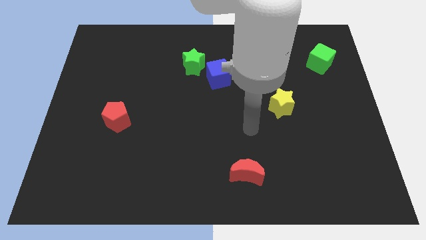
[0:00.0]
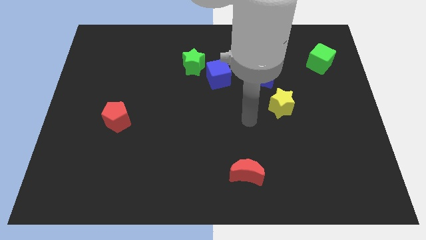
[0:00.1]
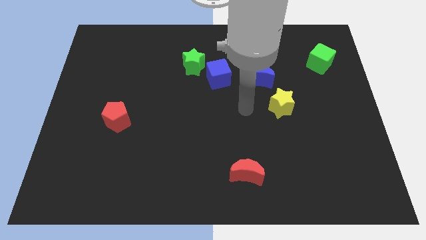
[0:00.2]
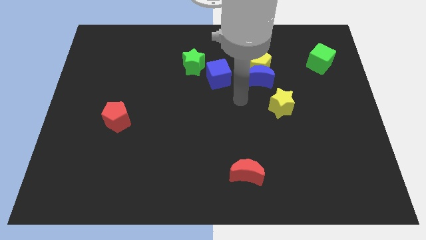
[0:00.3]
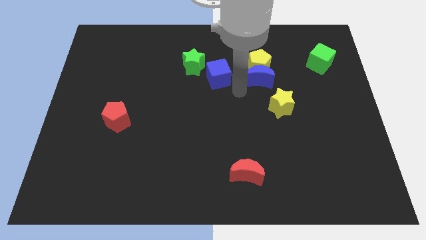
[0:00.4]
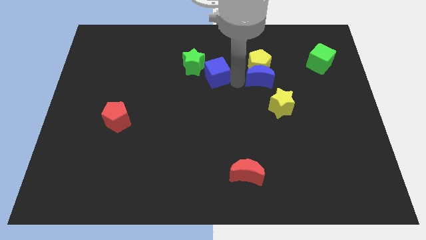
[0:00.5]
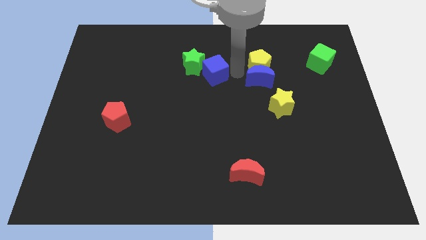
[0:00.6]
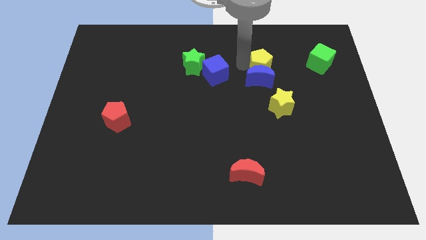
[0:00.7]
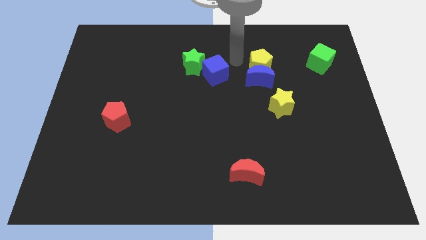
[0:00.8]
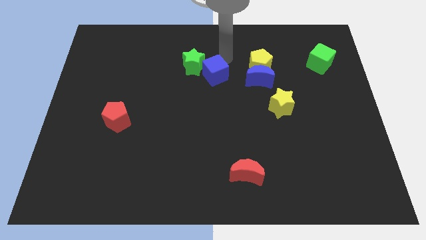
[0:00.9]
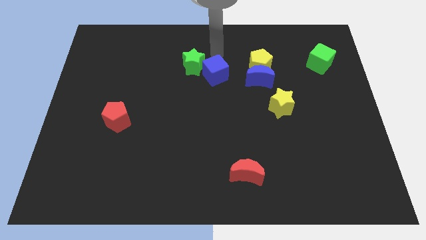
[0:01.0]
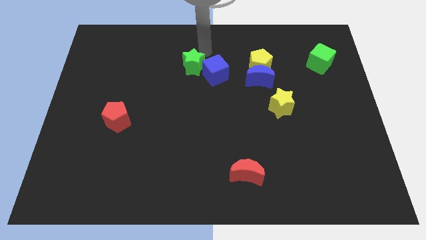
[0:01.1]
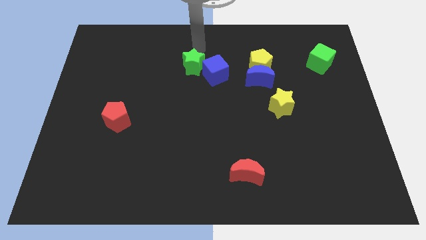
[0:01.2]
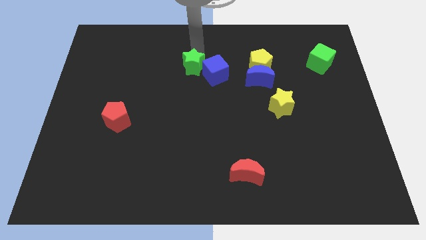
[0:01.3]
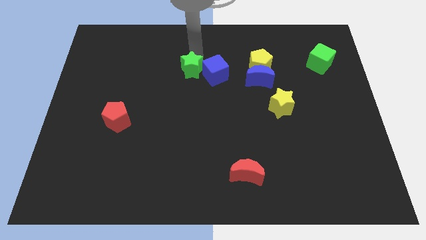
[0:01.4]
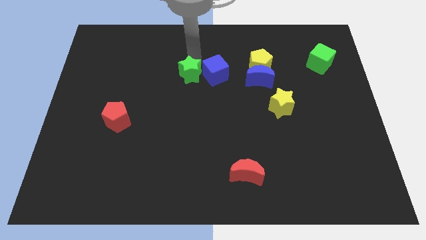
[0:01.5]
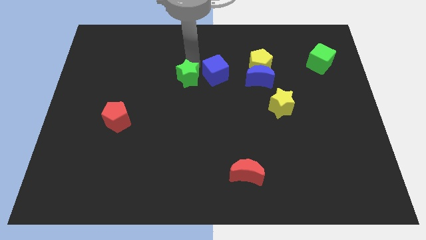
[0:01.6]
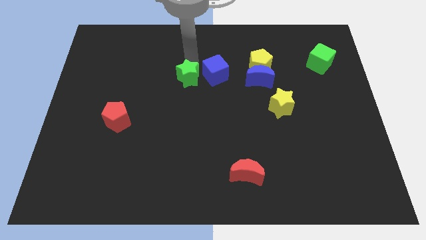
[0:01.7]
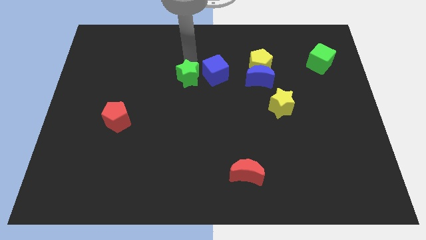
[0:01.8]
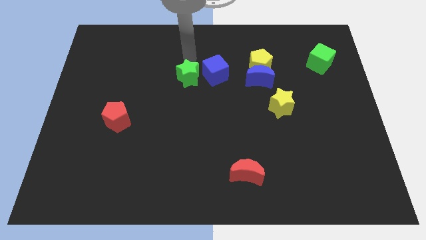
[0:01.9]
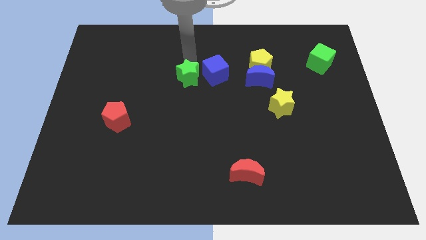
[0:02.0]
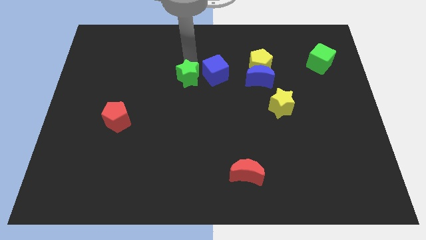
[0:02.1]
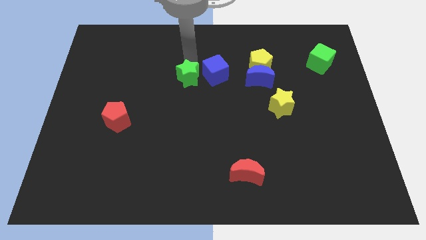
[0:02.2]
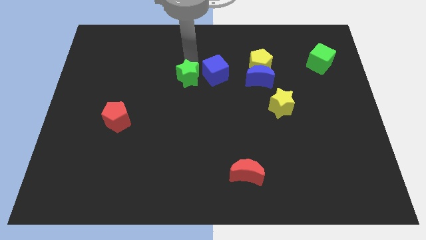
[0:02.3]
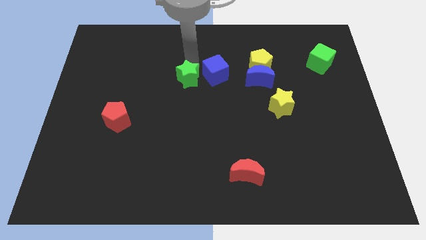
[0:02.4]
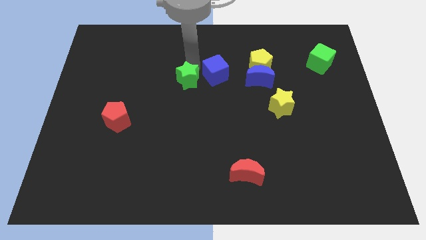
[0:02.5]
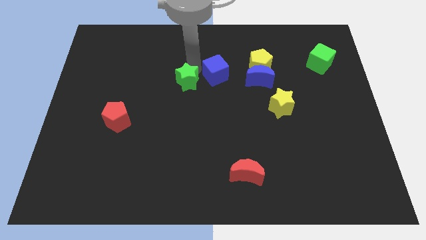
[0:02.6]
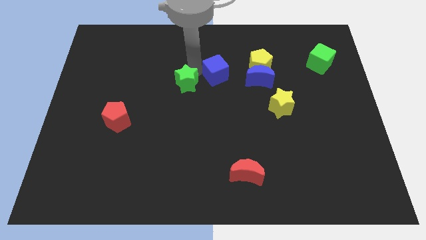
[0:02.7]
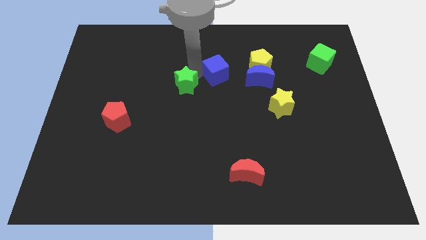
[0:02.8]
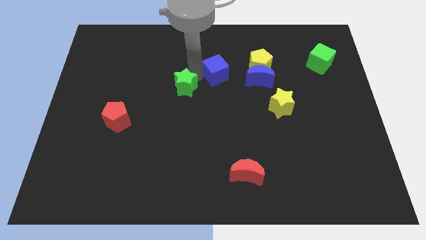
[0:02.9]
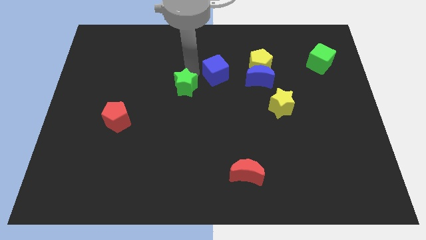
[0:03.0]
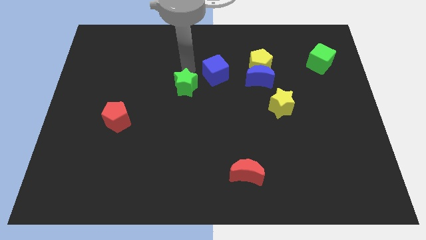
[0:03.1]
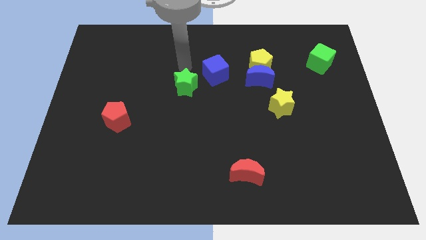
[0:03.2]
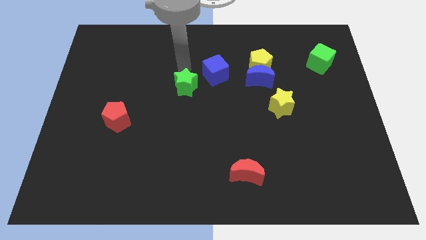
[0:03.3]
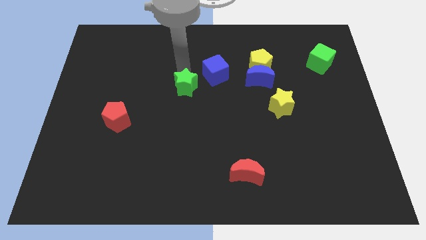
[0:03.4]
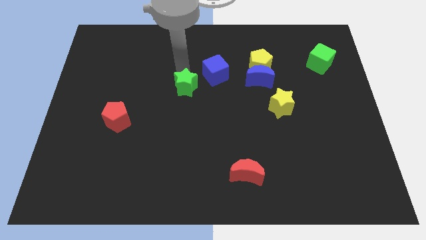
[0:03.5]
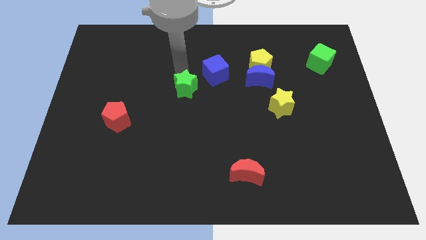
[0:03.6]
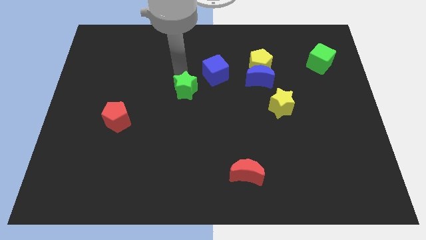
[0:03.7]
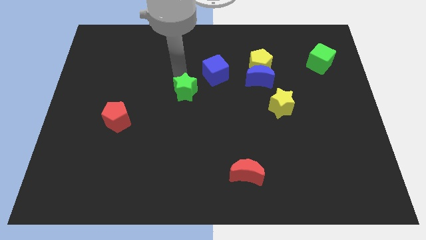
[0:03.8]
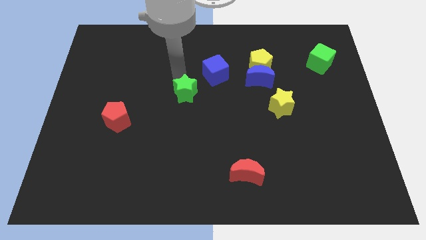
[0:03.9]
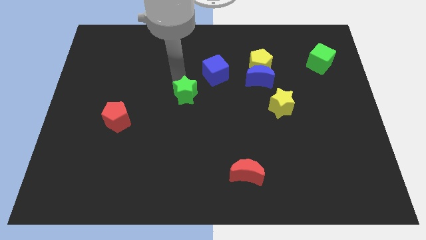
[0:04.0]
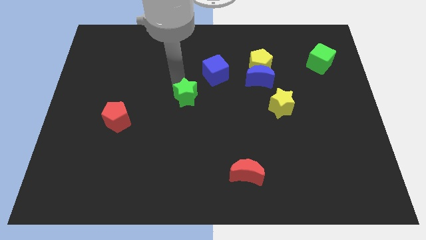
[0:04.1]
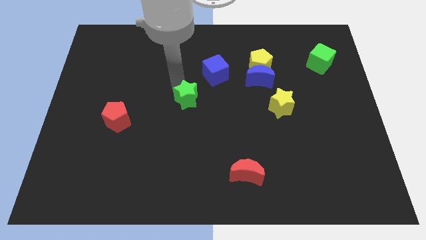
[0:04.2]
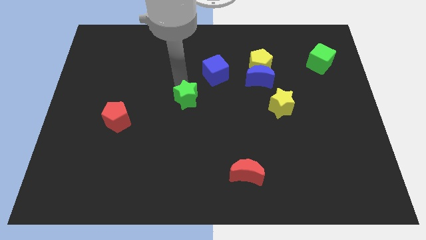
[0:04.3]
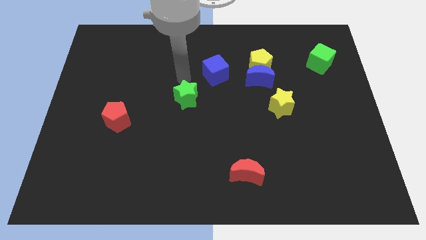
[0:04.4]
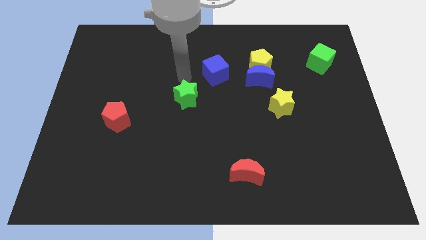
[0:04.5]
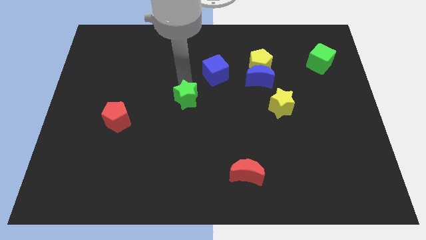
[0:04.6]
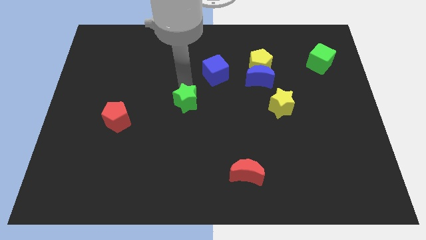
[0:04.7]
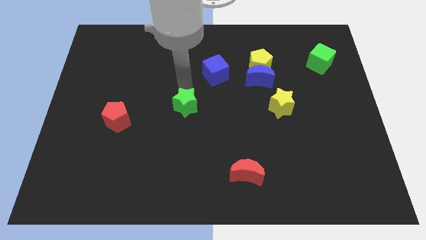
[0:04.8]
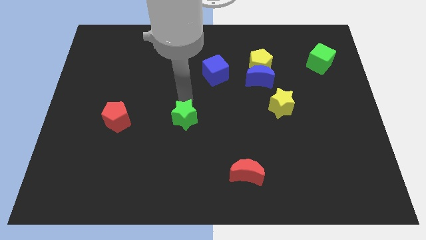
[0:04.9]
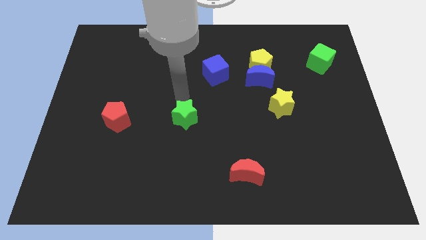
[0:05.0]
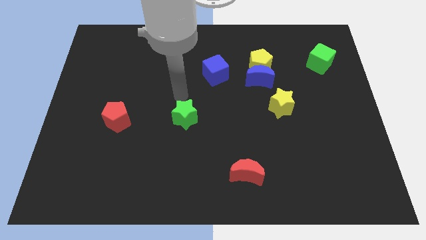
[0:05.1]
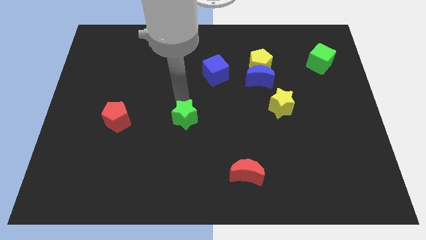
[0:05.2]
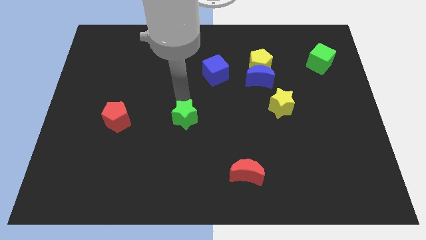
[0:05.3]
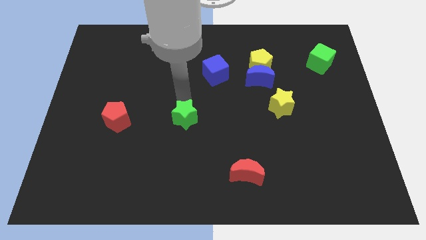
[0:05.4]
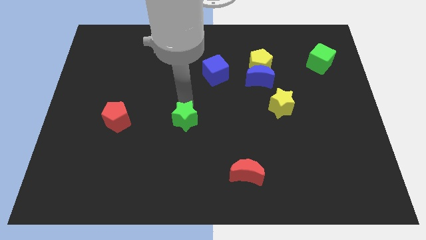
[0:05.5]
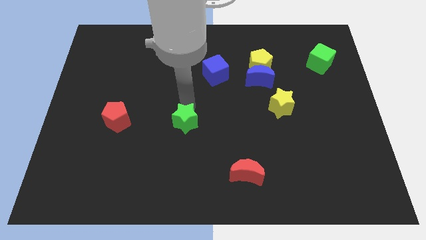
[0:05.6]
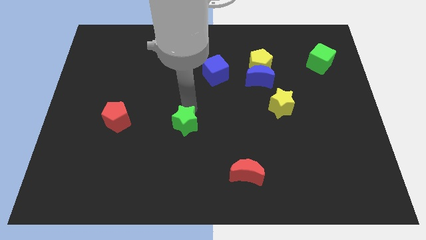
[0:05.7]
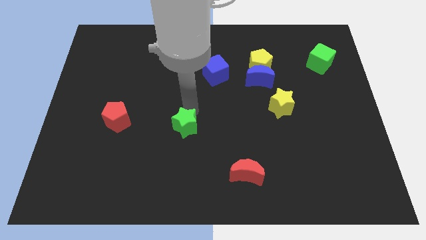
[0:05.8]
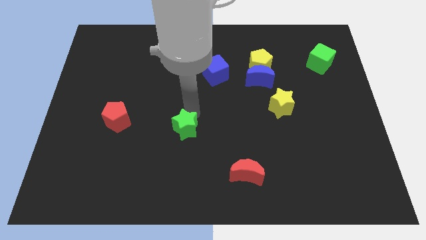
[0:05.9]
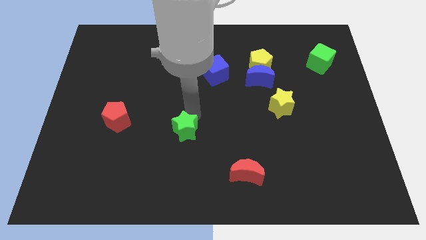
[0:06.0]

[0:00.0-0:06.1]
move the green star down

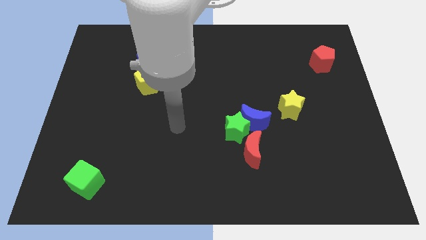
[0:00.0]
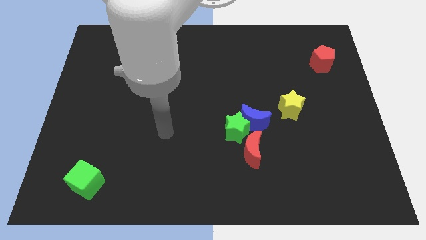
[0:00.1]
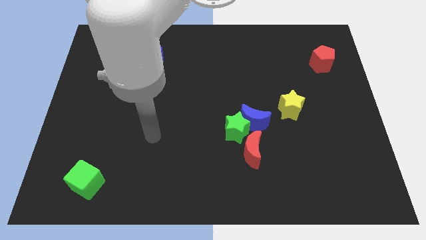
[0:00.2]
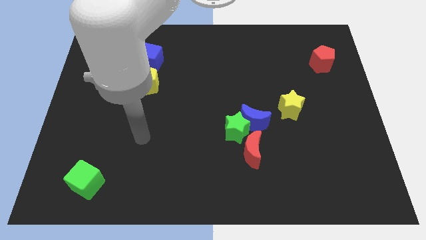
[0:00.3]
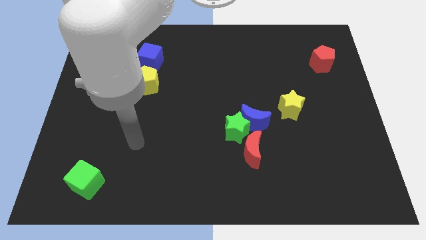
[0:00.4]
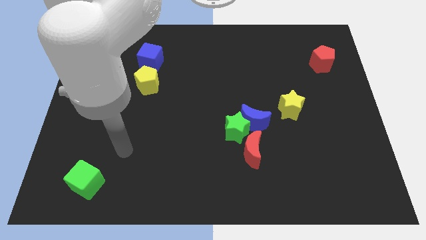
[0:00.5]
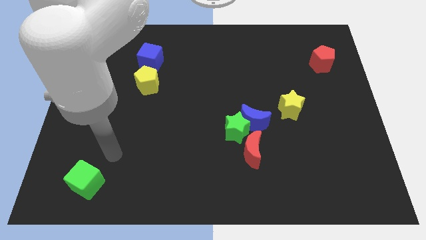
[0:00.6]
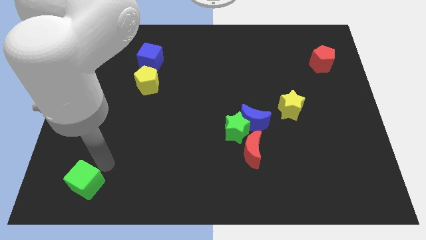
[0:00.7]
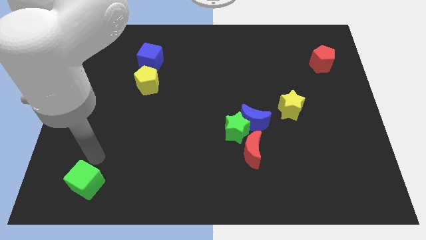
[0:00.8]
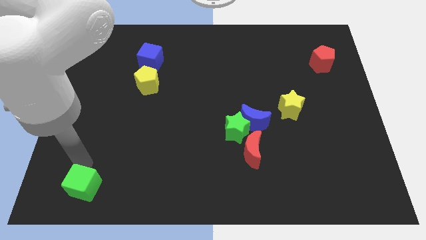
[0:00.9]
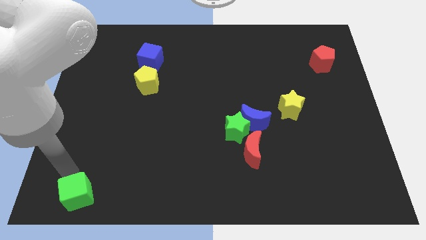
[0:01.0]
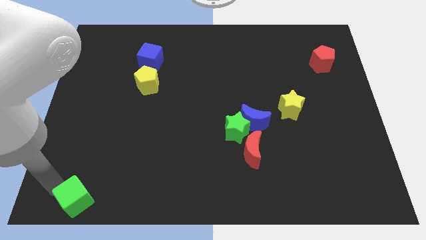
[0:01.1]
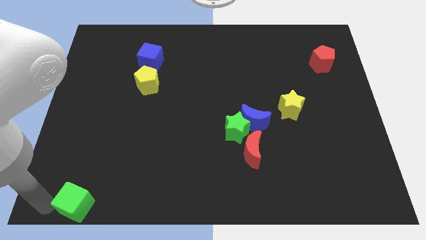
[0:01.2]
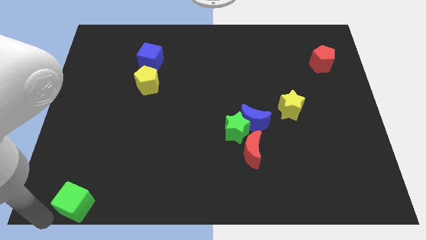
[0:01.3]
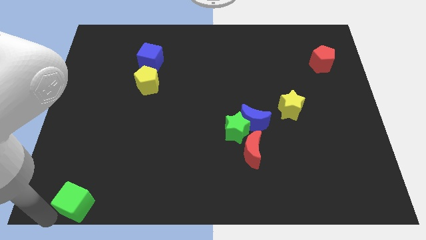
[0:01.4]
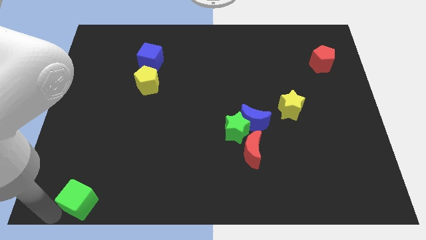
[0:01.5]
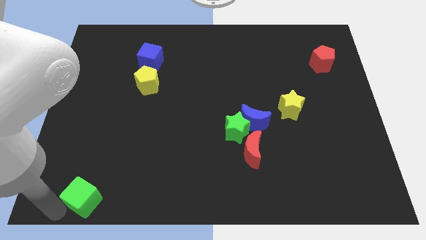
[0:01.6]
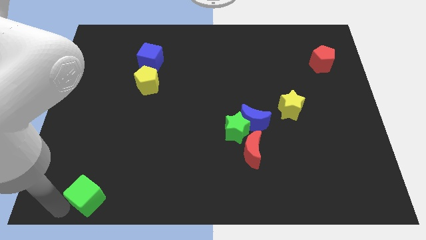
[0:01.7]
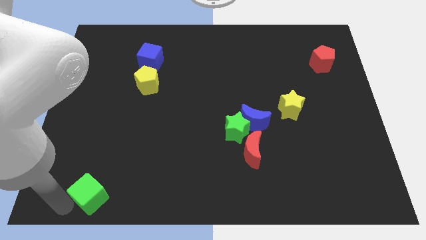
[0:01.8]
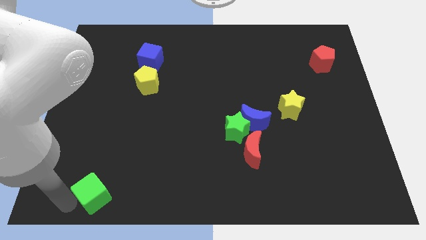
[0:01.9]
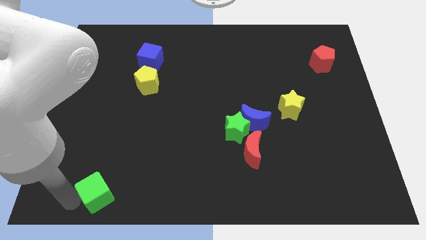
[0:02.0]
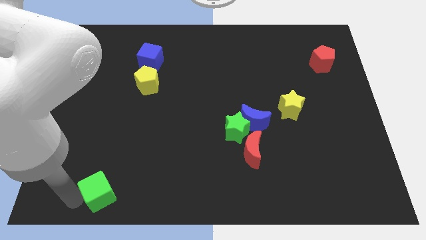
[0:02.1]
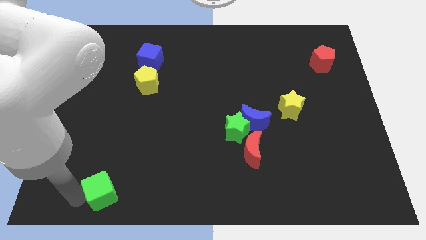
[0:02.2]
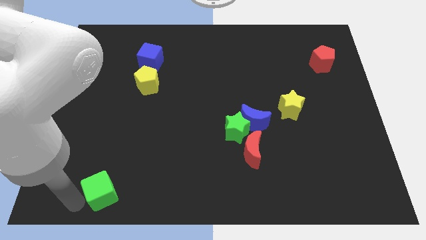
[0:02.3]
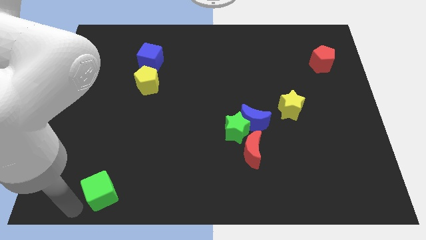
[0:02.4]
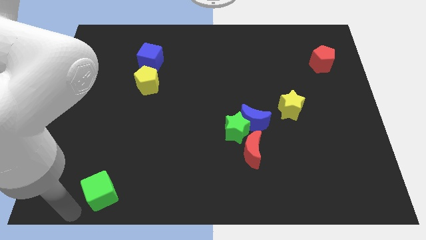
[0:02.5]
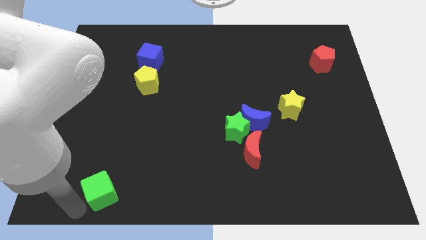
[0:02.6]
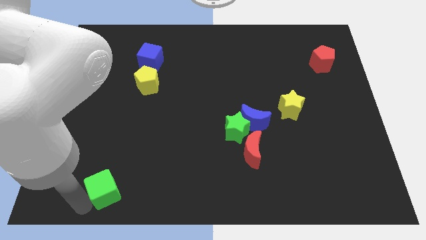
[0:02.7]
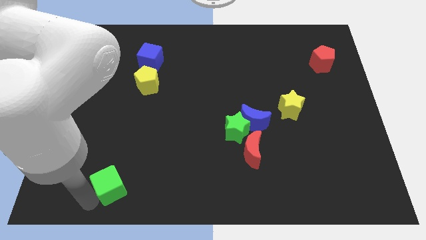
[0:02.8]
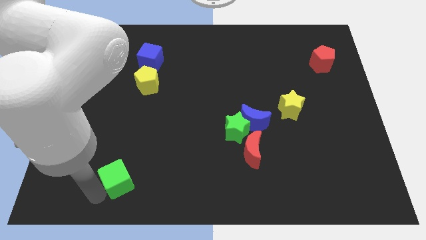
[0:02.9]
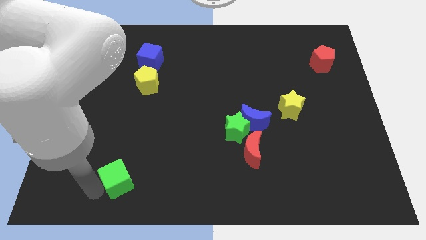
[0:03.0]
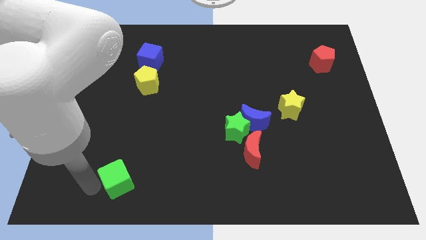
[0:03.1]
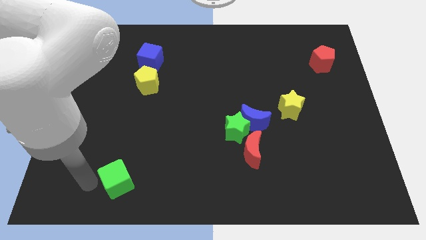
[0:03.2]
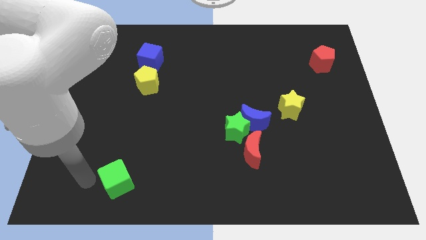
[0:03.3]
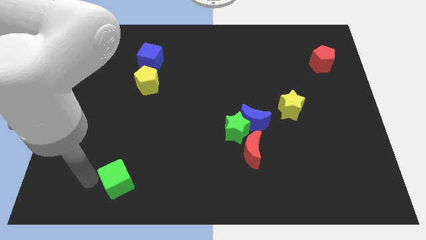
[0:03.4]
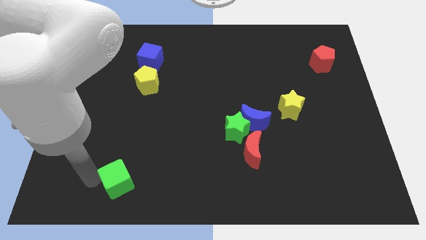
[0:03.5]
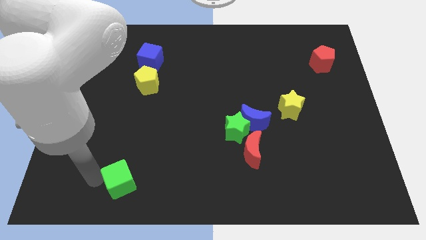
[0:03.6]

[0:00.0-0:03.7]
push the green cube somewhat right
